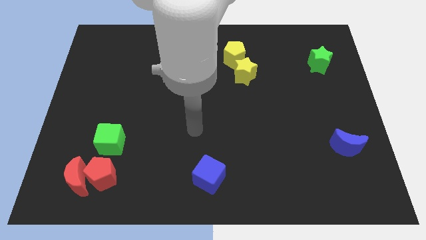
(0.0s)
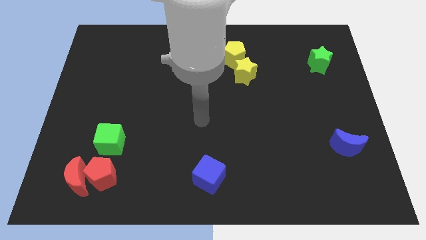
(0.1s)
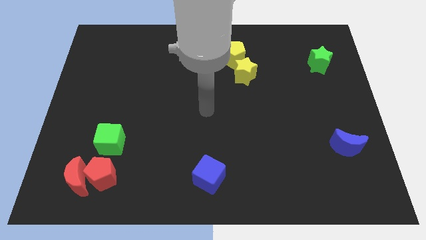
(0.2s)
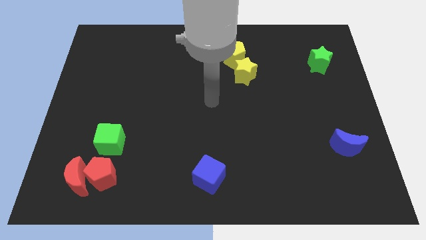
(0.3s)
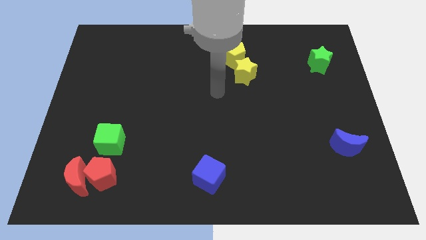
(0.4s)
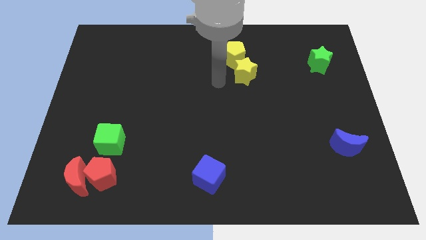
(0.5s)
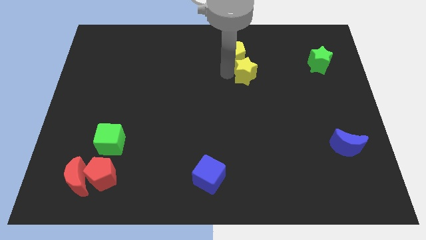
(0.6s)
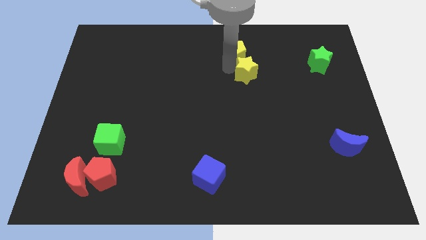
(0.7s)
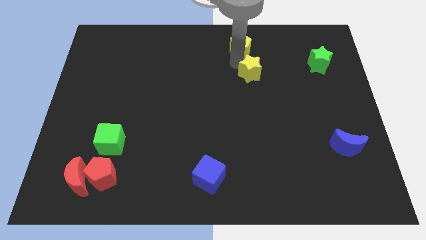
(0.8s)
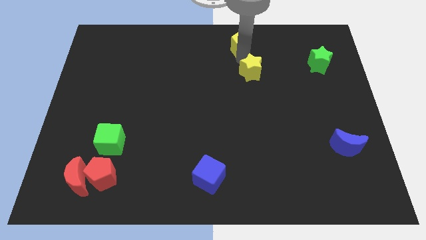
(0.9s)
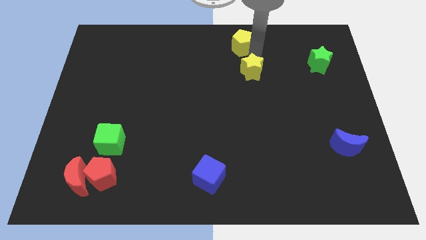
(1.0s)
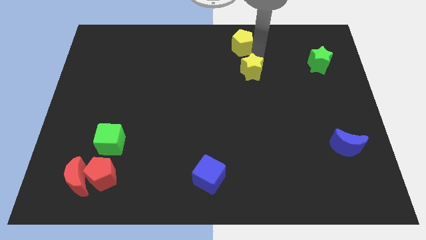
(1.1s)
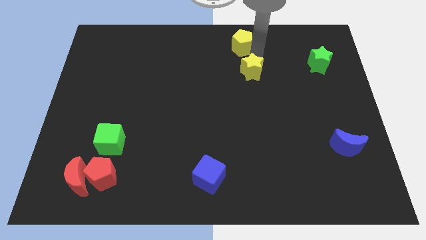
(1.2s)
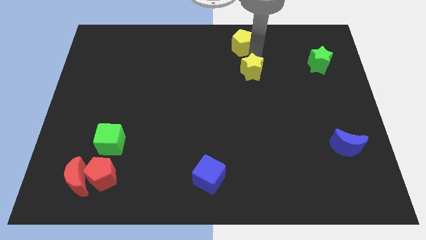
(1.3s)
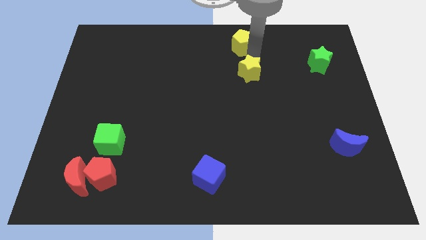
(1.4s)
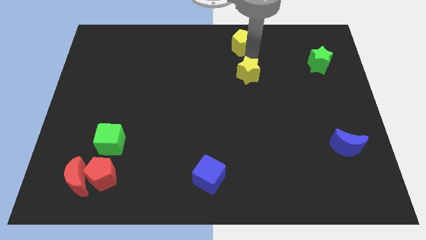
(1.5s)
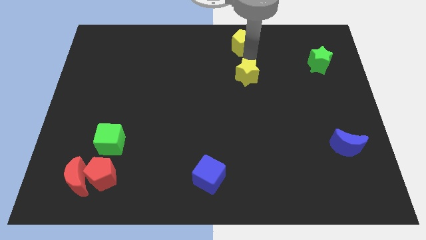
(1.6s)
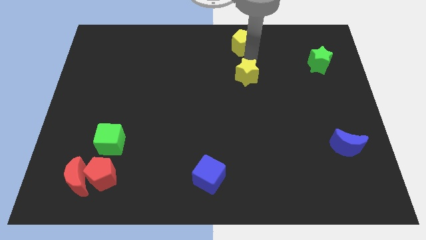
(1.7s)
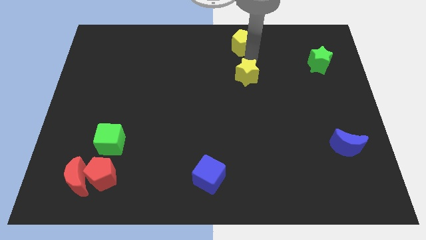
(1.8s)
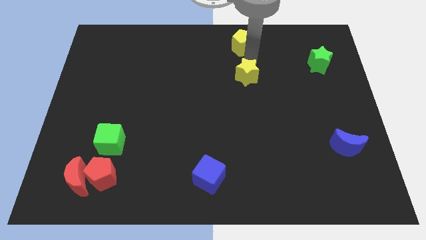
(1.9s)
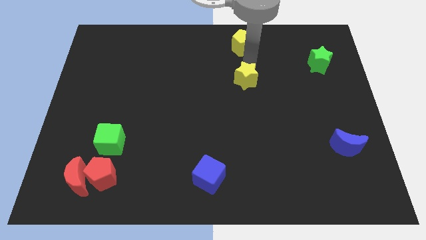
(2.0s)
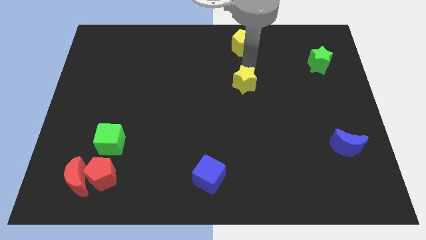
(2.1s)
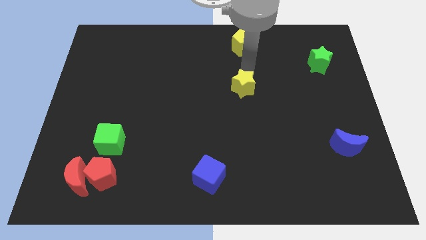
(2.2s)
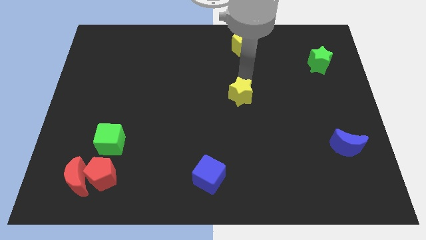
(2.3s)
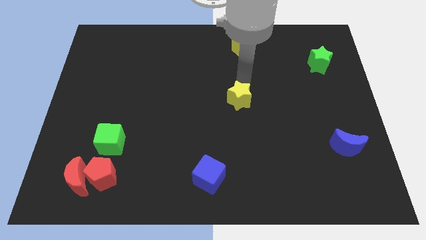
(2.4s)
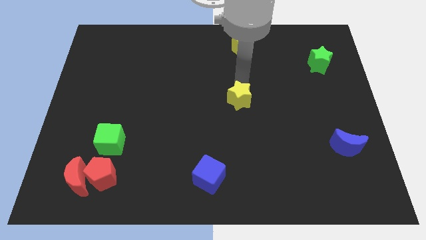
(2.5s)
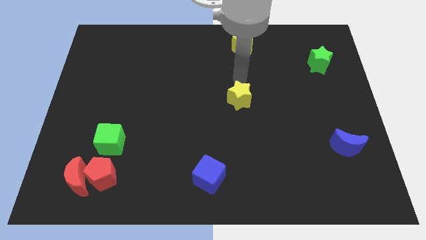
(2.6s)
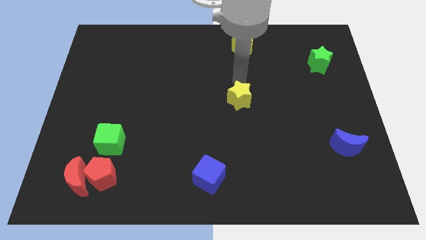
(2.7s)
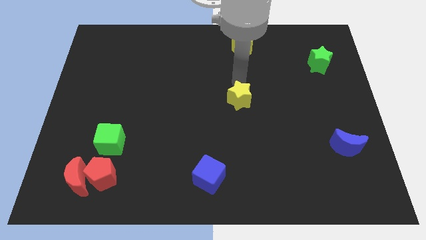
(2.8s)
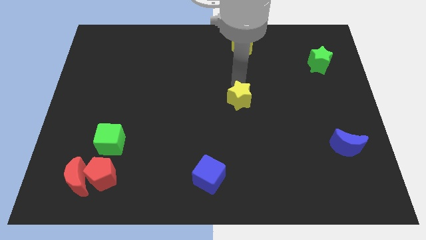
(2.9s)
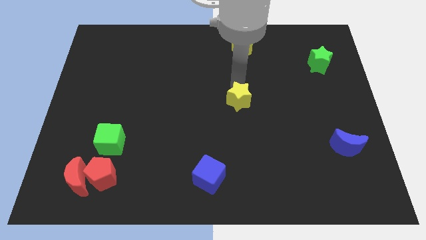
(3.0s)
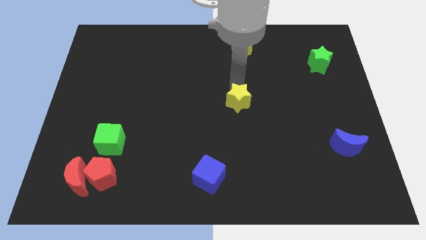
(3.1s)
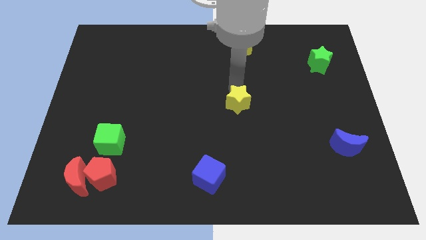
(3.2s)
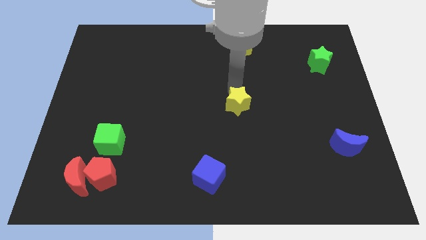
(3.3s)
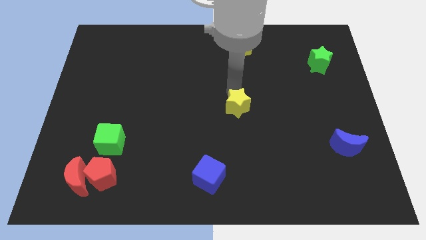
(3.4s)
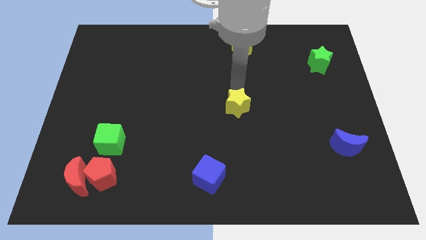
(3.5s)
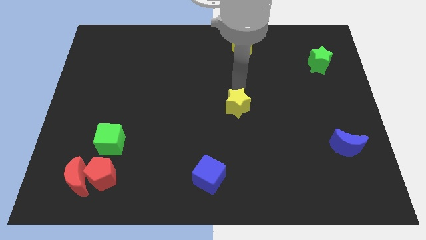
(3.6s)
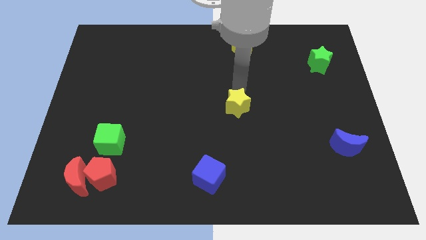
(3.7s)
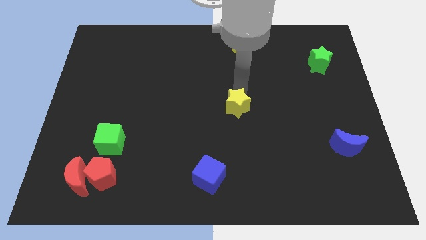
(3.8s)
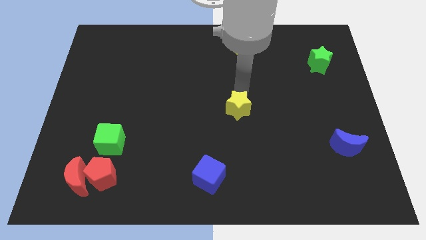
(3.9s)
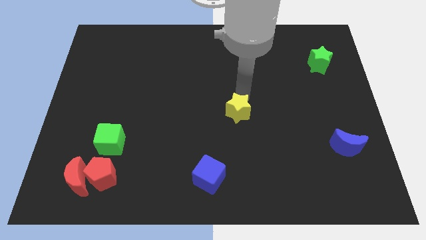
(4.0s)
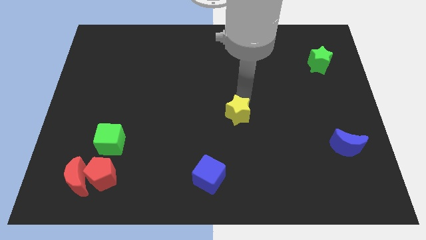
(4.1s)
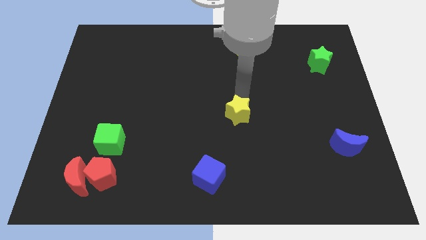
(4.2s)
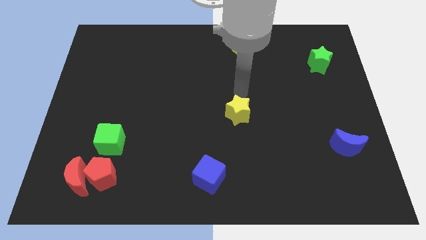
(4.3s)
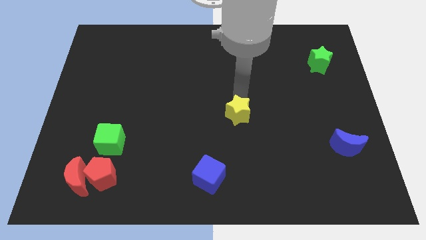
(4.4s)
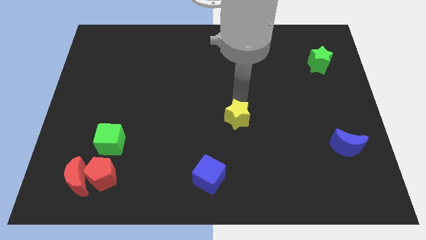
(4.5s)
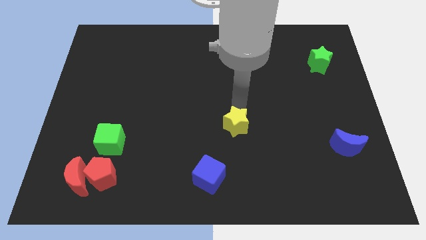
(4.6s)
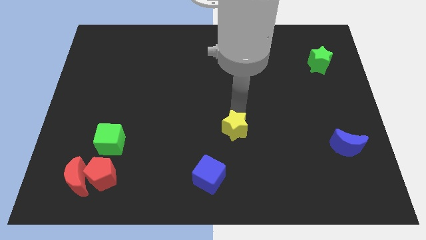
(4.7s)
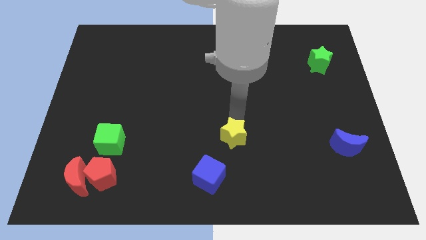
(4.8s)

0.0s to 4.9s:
put the yellow star to the top right side of the blue cube

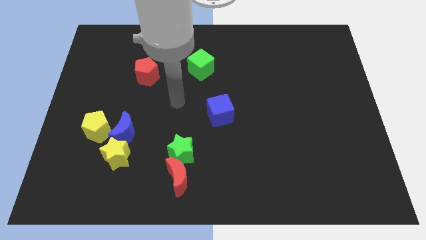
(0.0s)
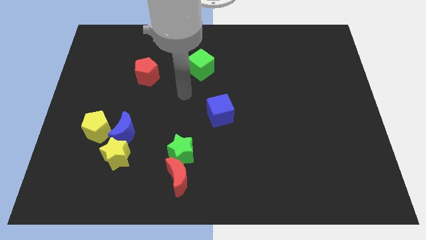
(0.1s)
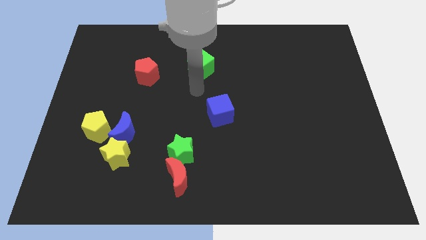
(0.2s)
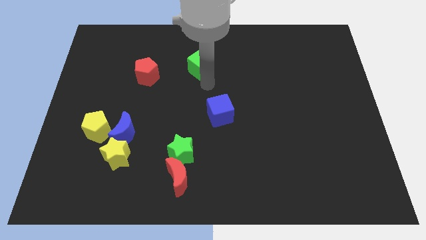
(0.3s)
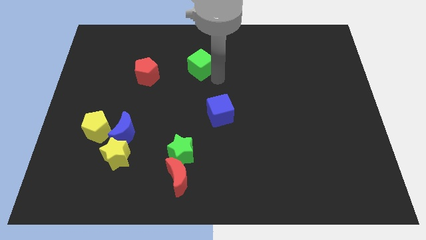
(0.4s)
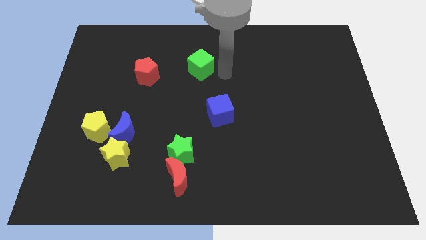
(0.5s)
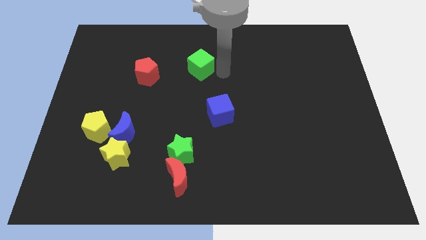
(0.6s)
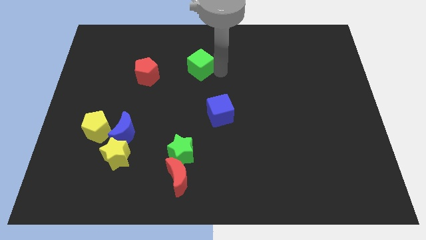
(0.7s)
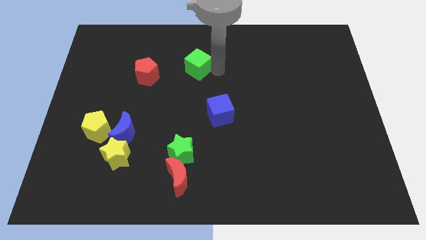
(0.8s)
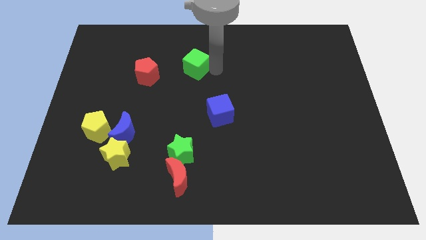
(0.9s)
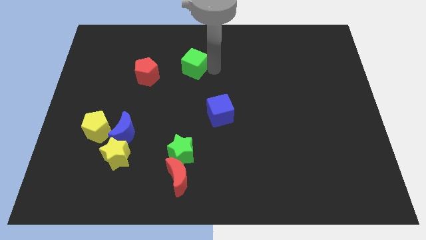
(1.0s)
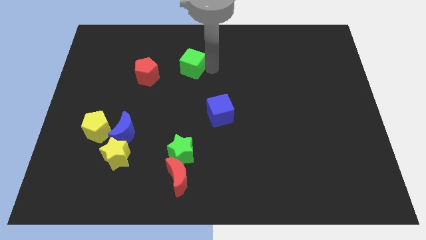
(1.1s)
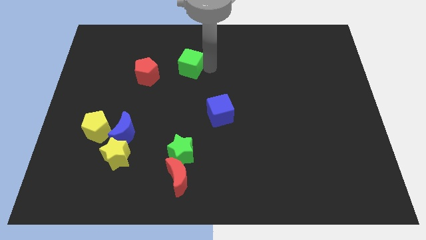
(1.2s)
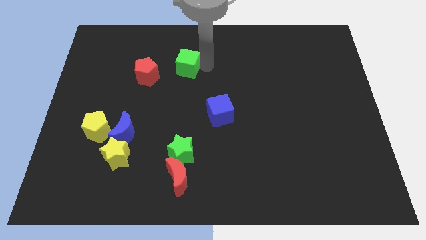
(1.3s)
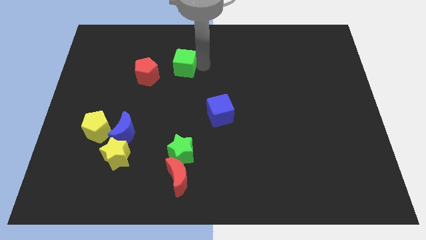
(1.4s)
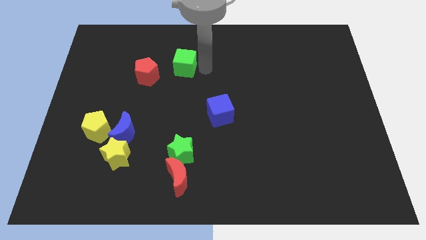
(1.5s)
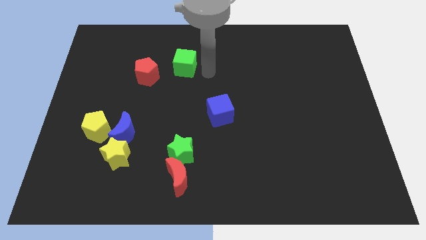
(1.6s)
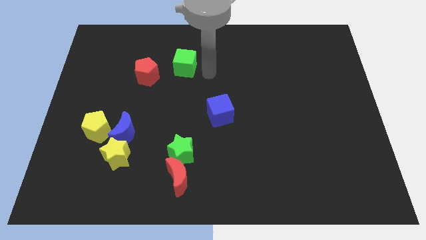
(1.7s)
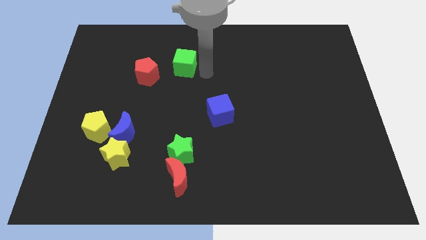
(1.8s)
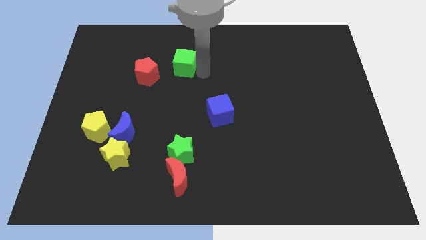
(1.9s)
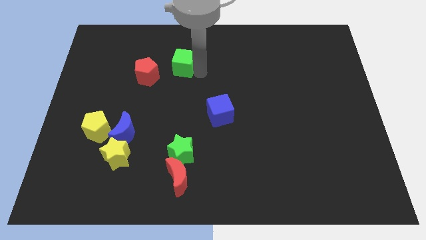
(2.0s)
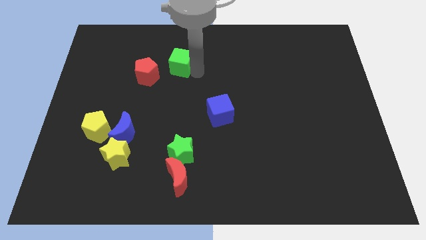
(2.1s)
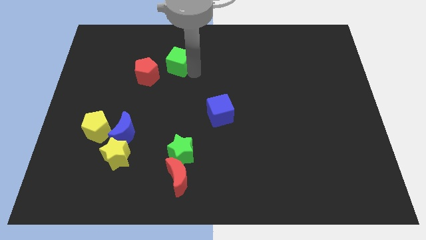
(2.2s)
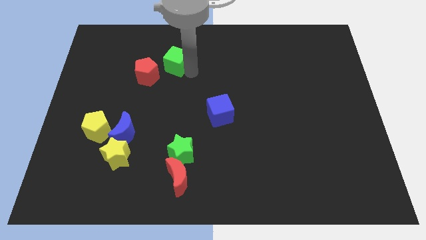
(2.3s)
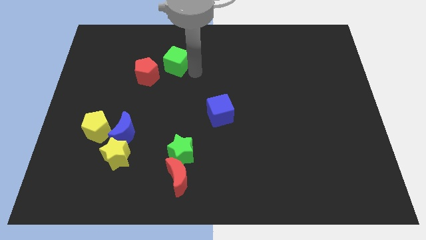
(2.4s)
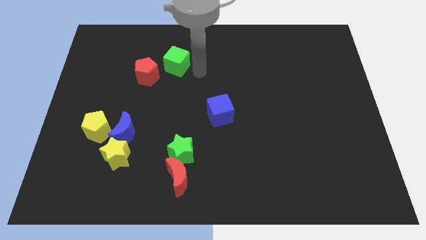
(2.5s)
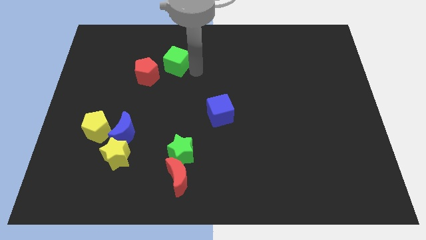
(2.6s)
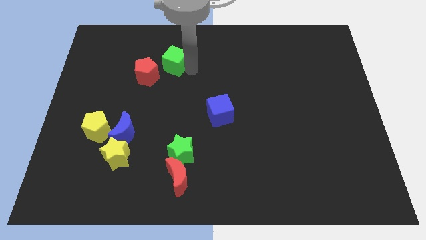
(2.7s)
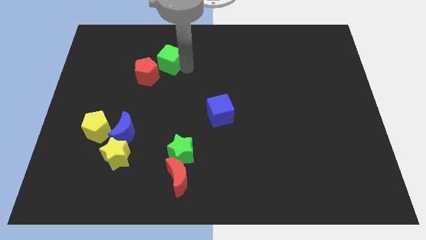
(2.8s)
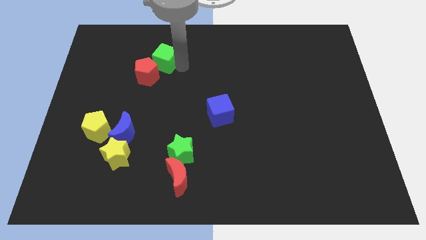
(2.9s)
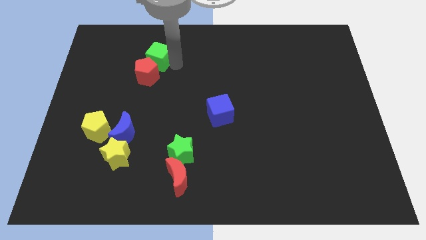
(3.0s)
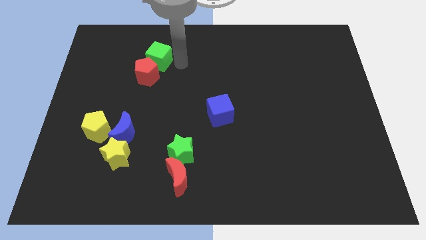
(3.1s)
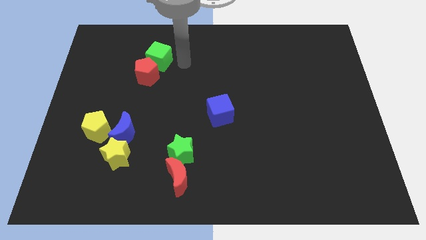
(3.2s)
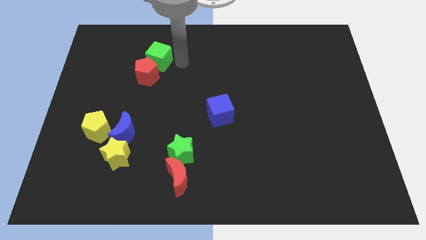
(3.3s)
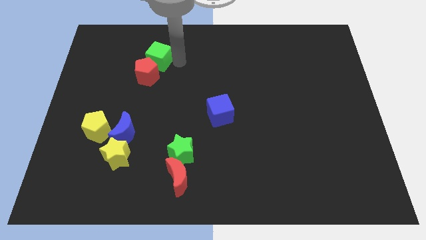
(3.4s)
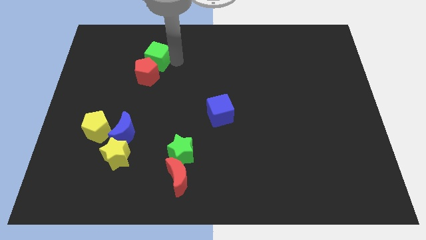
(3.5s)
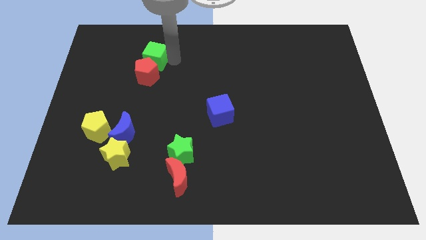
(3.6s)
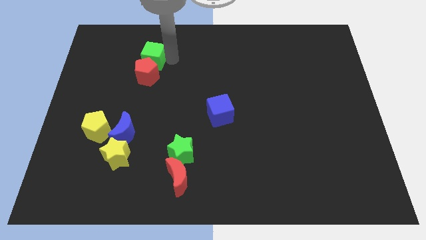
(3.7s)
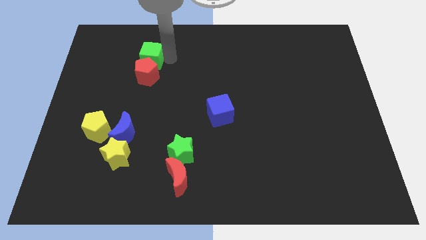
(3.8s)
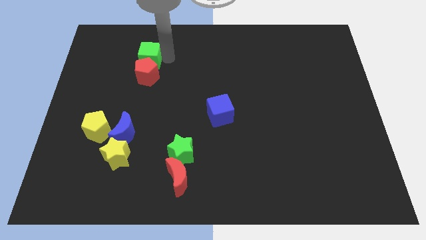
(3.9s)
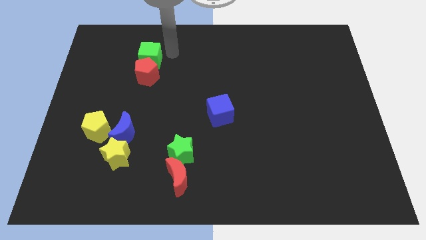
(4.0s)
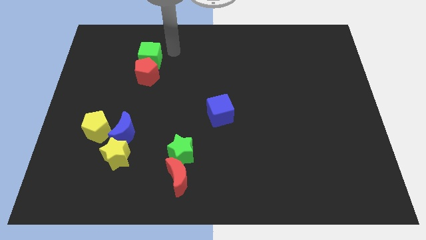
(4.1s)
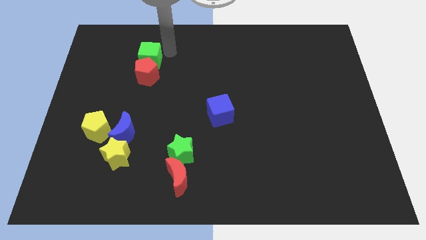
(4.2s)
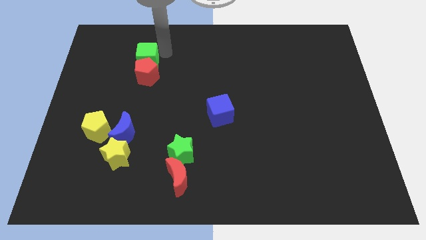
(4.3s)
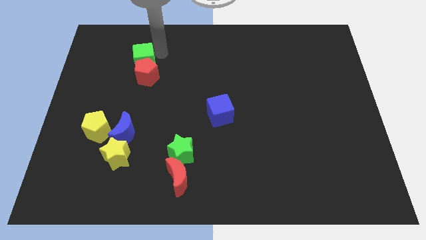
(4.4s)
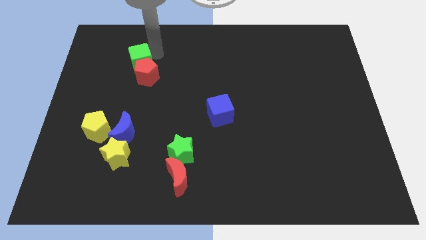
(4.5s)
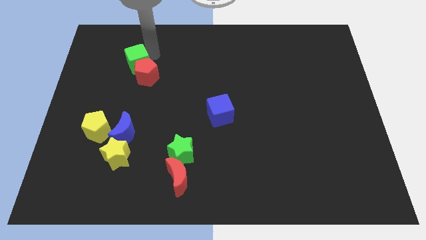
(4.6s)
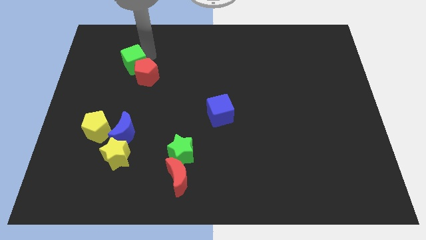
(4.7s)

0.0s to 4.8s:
move the green cube to the left side of the red pentagon
